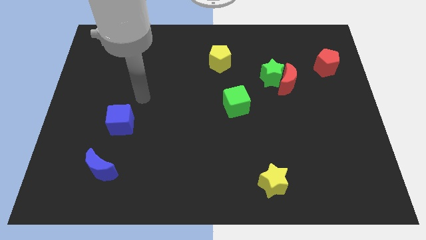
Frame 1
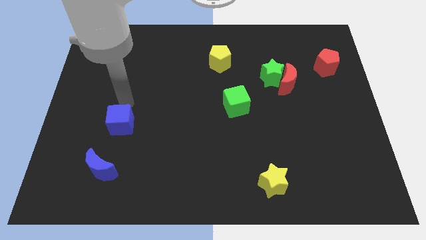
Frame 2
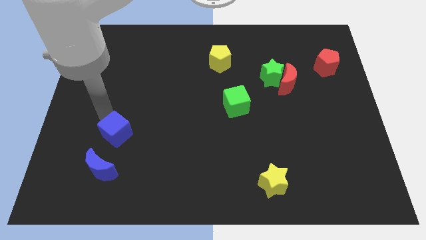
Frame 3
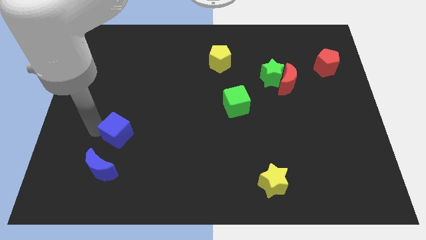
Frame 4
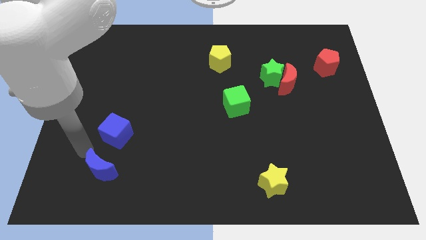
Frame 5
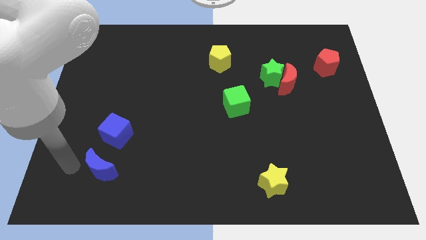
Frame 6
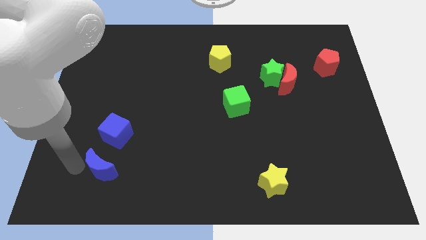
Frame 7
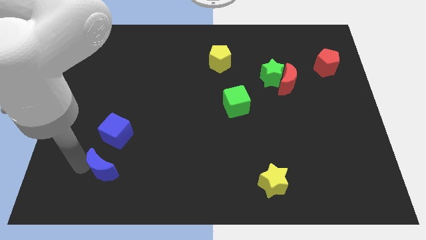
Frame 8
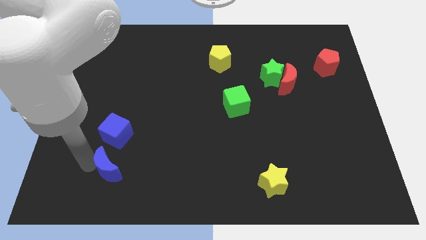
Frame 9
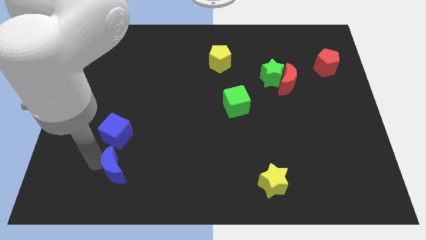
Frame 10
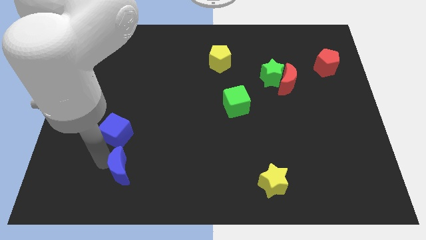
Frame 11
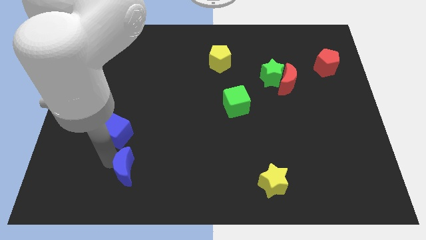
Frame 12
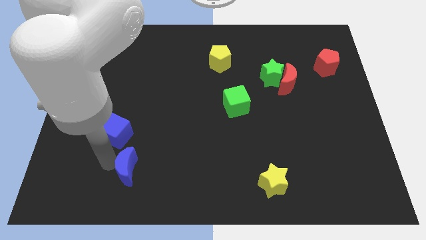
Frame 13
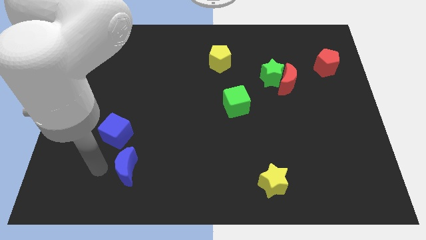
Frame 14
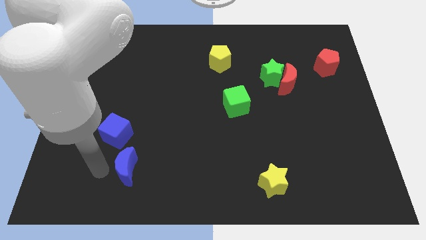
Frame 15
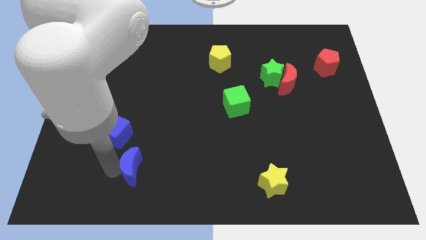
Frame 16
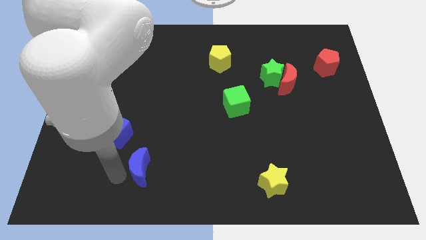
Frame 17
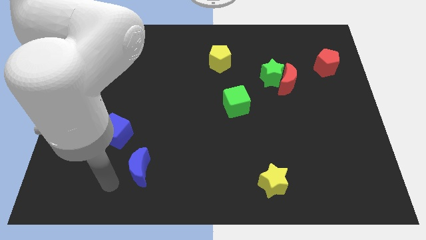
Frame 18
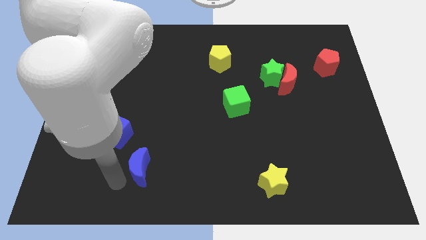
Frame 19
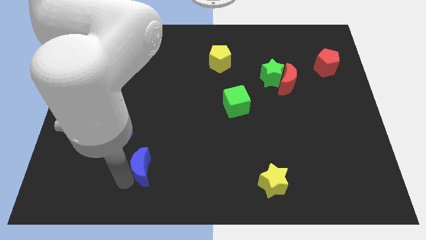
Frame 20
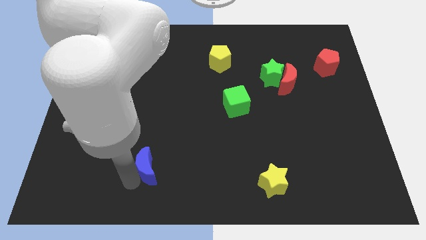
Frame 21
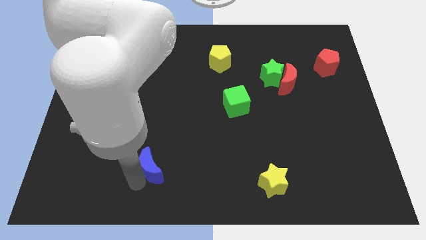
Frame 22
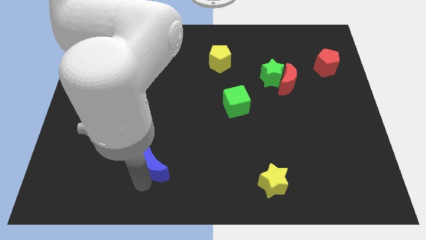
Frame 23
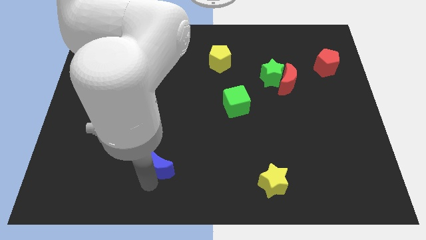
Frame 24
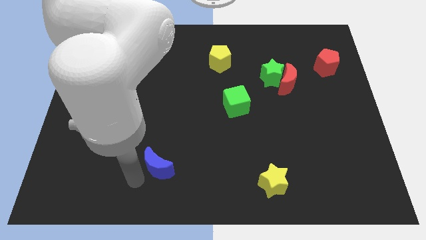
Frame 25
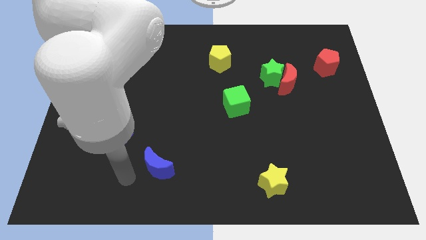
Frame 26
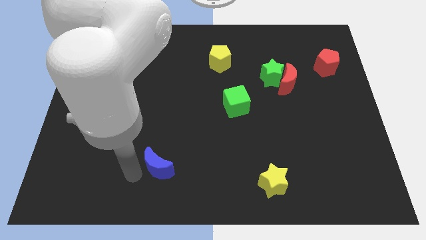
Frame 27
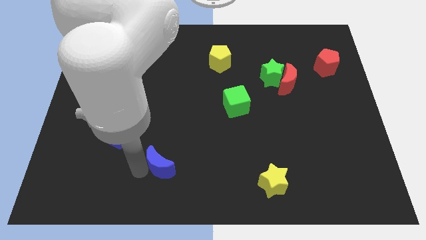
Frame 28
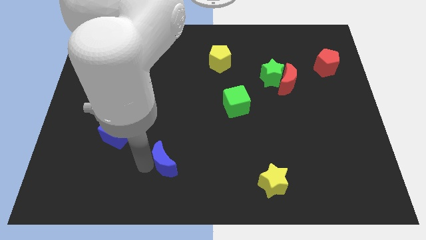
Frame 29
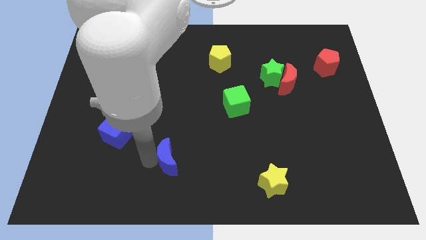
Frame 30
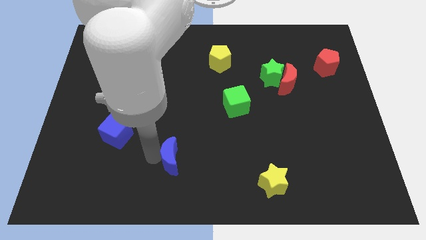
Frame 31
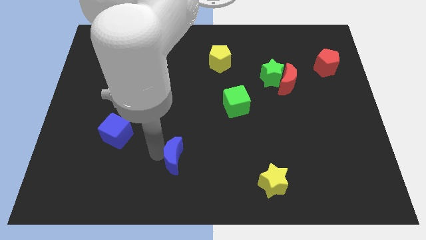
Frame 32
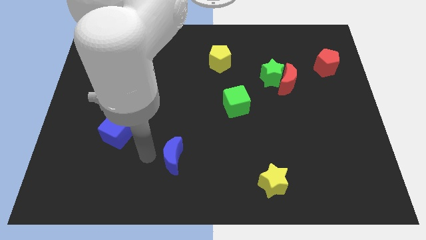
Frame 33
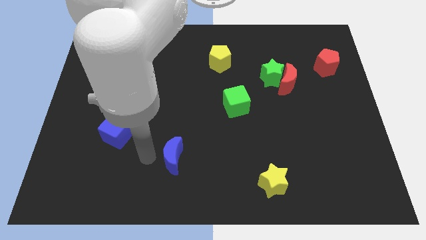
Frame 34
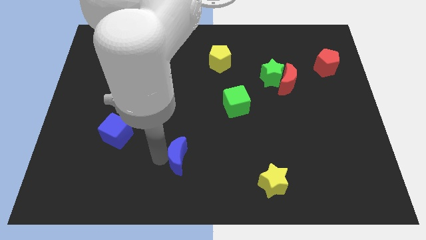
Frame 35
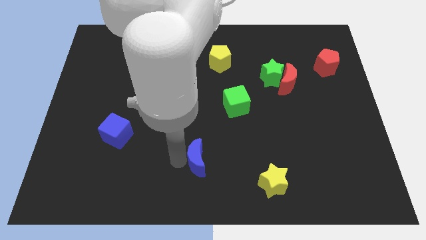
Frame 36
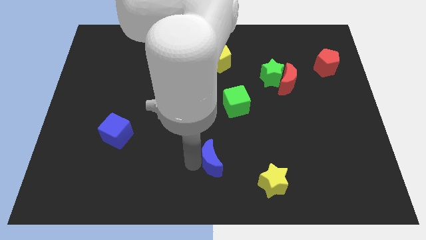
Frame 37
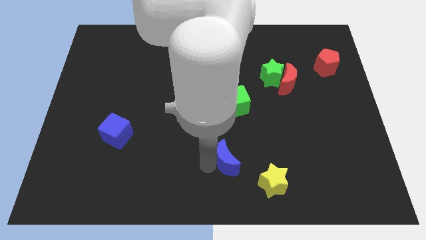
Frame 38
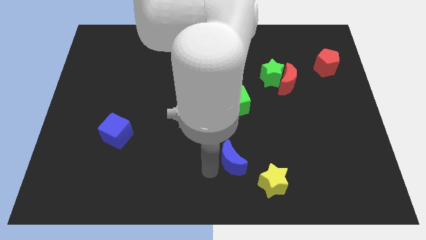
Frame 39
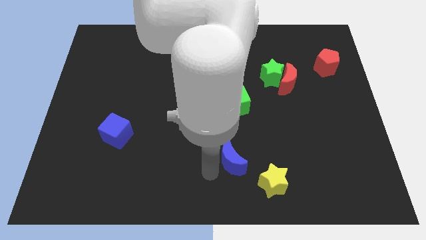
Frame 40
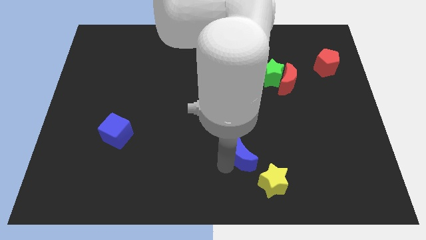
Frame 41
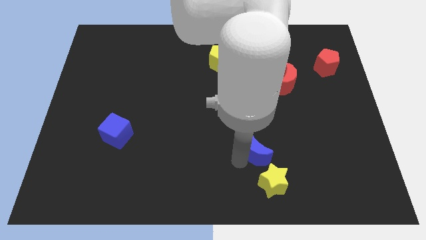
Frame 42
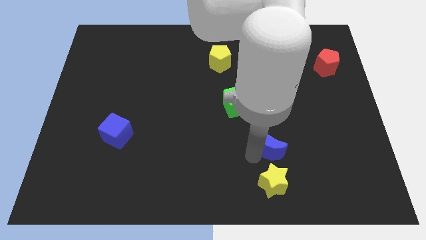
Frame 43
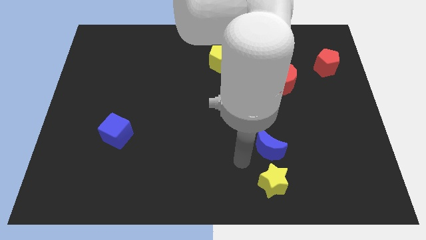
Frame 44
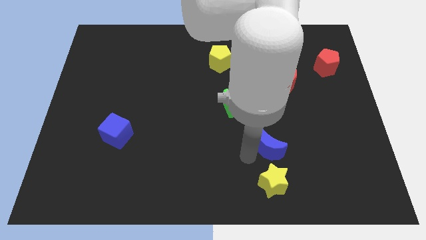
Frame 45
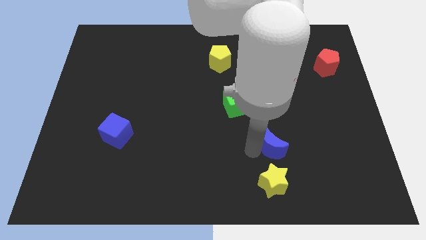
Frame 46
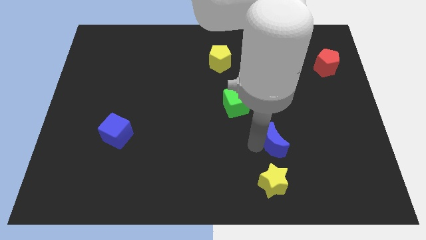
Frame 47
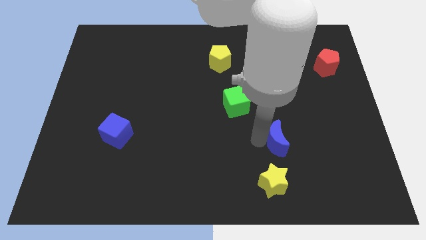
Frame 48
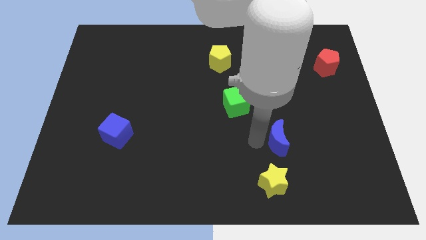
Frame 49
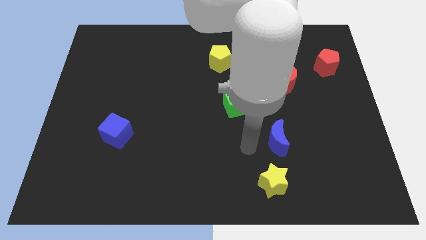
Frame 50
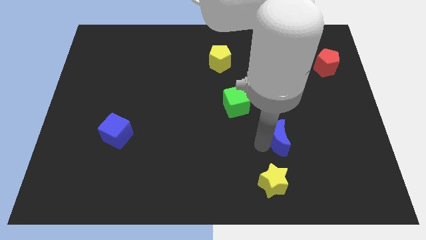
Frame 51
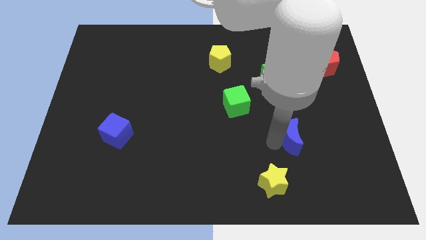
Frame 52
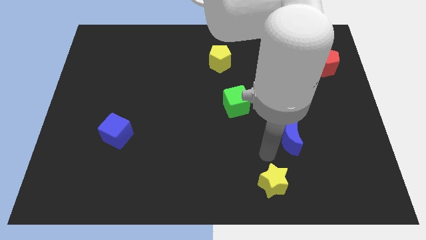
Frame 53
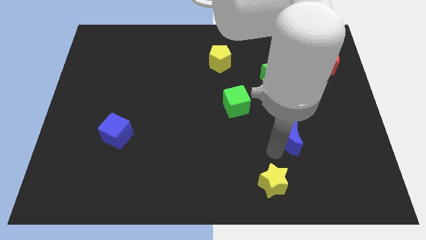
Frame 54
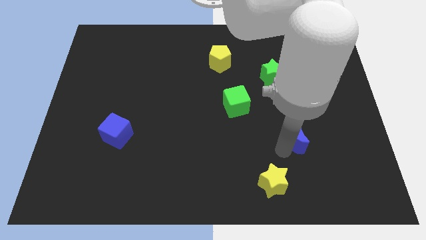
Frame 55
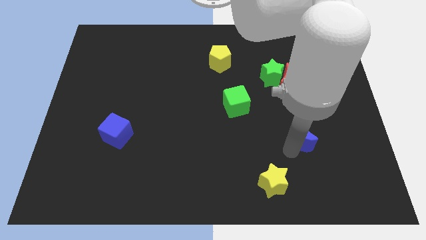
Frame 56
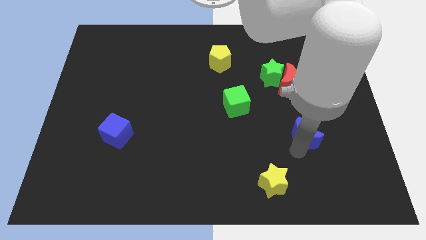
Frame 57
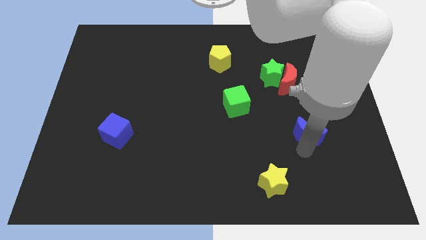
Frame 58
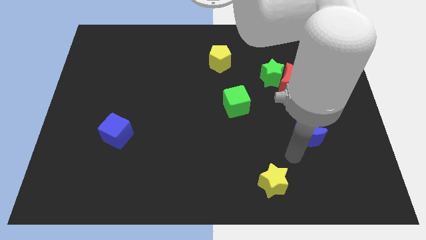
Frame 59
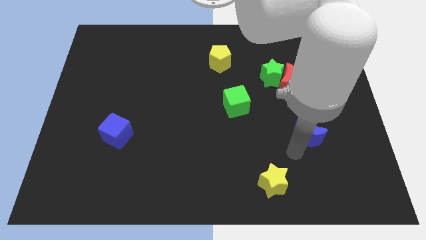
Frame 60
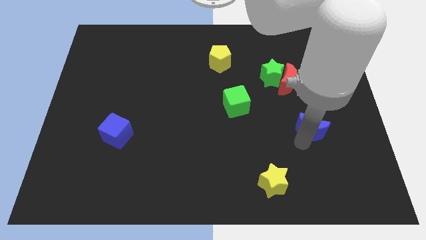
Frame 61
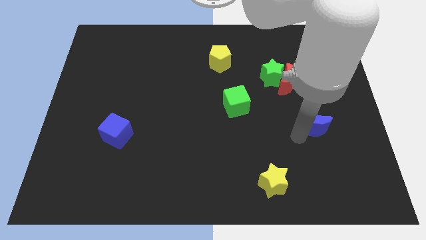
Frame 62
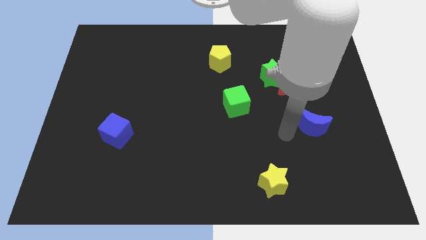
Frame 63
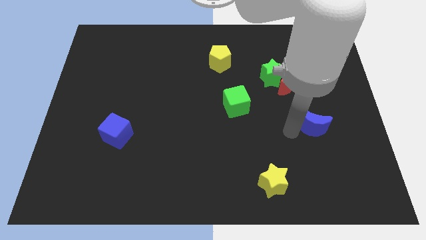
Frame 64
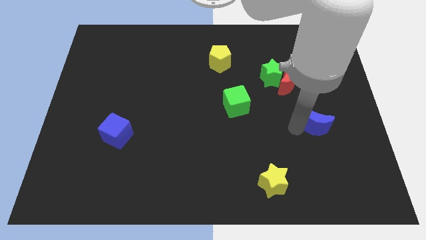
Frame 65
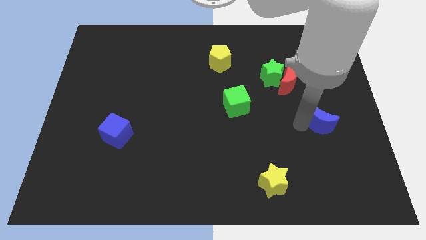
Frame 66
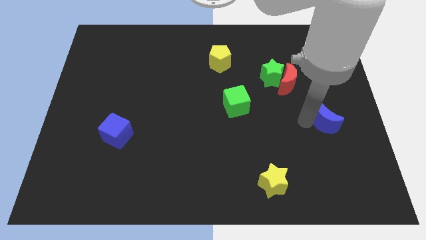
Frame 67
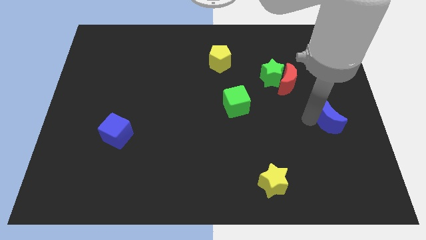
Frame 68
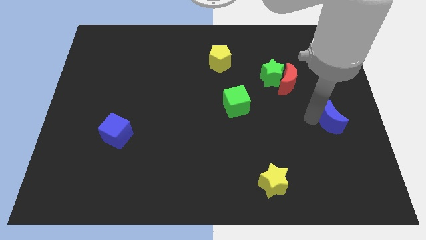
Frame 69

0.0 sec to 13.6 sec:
put the blue moon to the right side of the board
